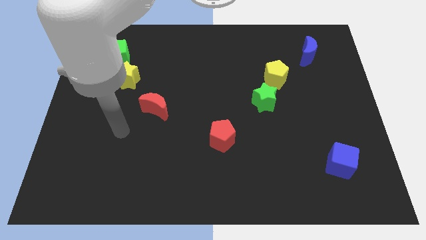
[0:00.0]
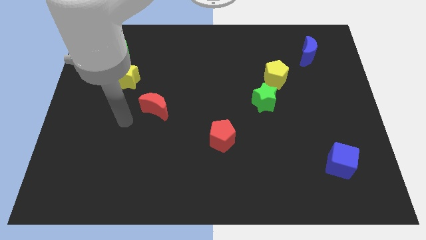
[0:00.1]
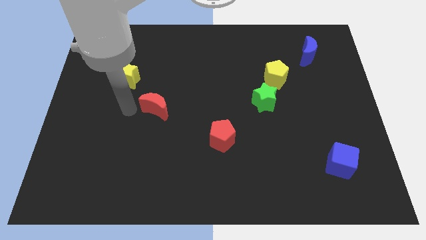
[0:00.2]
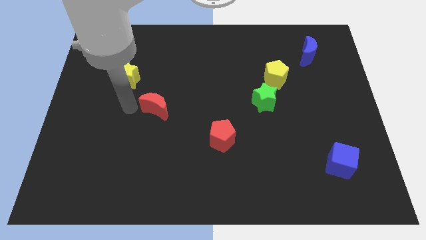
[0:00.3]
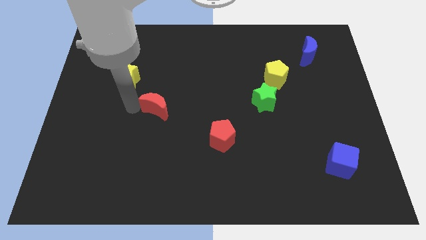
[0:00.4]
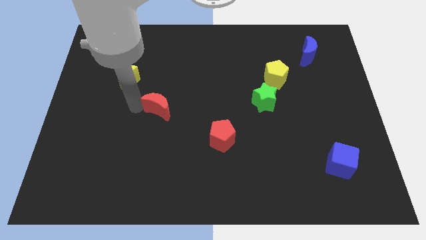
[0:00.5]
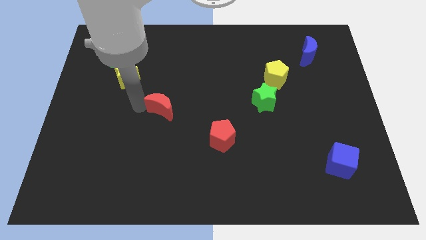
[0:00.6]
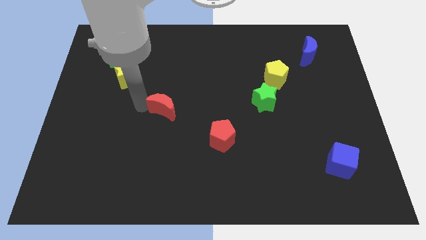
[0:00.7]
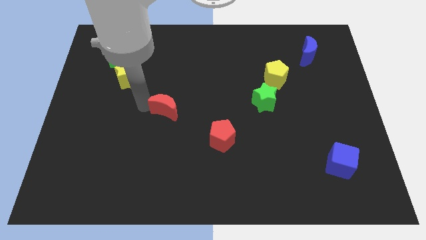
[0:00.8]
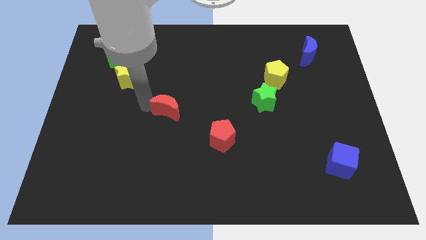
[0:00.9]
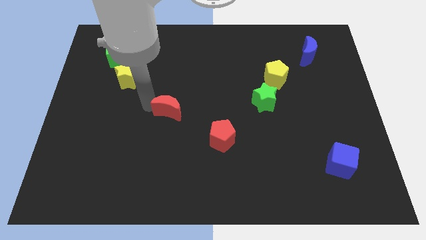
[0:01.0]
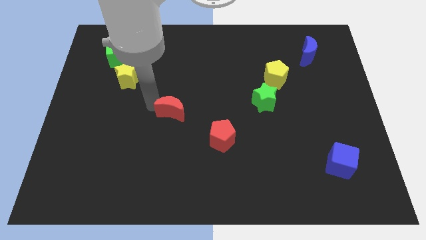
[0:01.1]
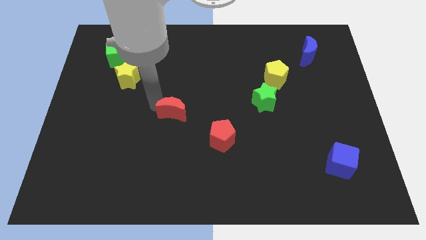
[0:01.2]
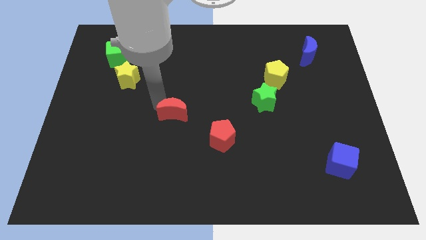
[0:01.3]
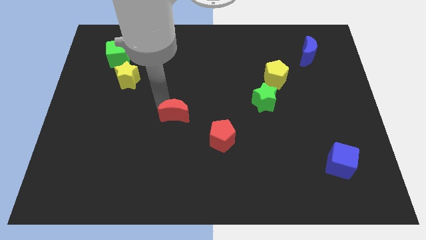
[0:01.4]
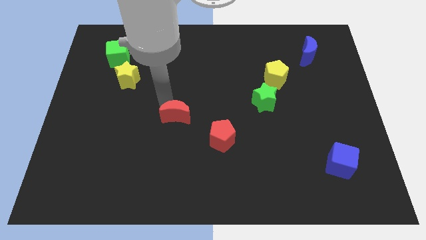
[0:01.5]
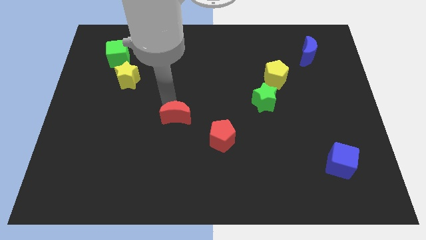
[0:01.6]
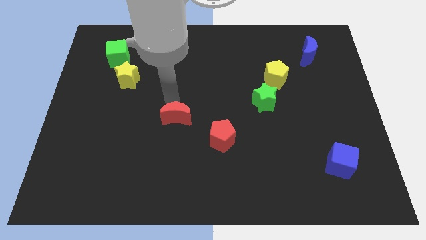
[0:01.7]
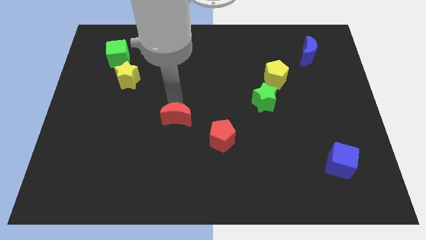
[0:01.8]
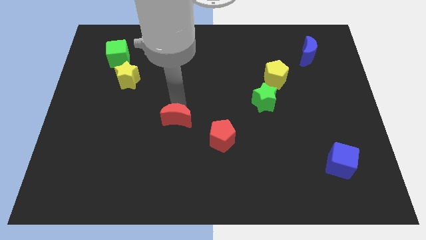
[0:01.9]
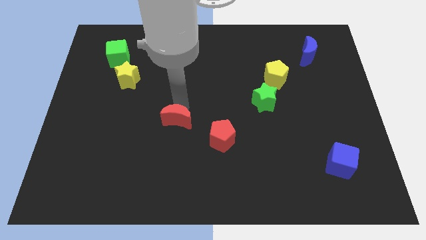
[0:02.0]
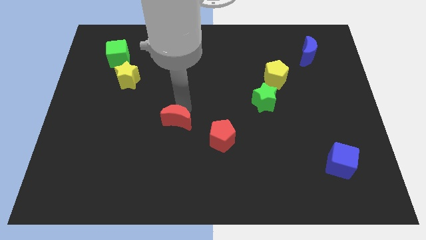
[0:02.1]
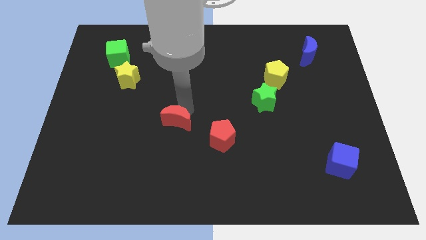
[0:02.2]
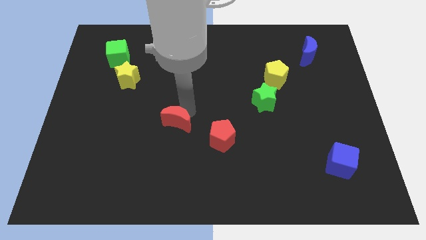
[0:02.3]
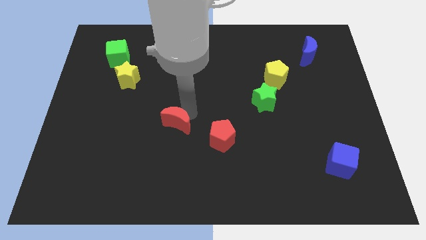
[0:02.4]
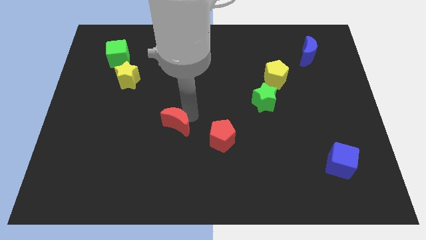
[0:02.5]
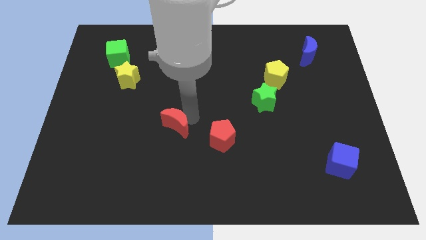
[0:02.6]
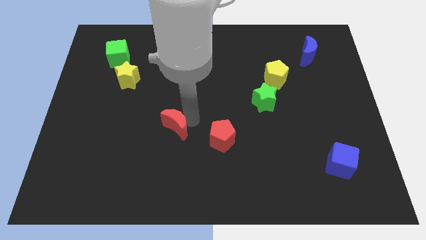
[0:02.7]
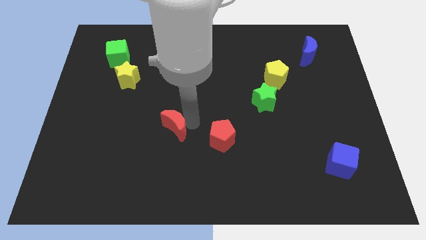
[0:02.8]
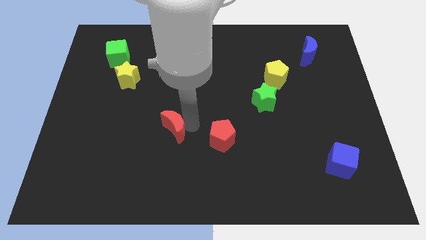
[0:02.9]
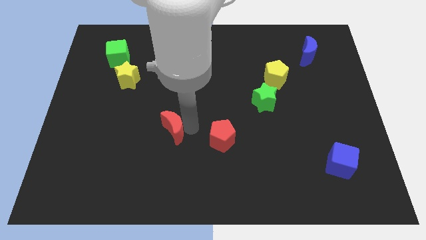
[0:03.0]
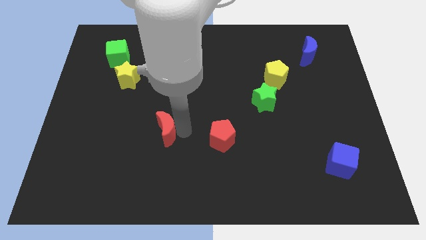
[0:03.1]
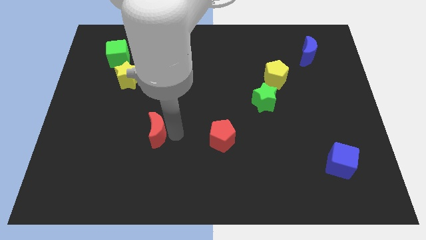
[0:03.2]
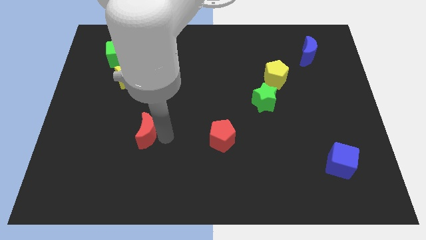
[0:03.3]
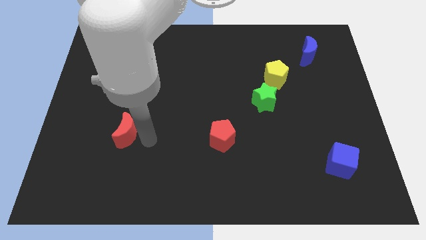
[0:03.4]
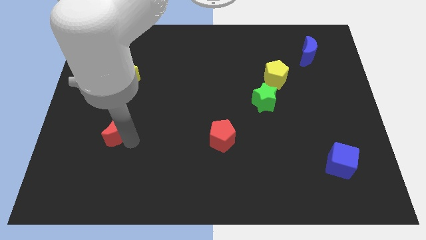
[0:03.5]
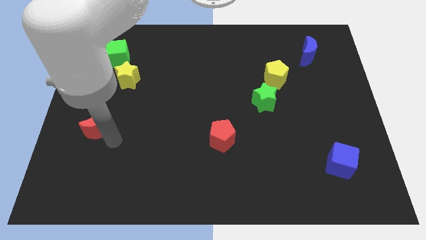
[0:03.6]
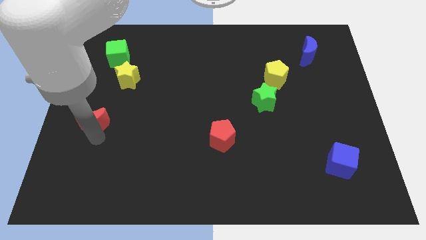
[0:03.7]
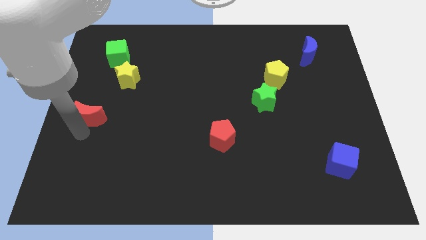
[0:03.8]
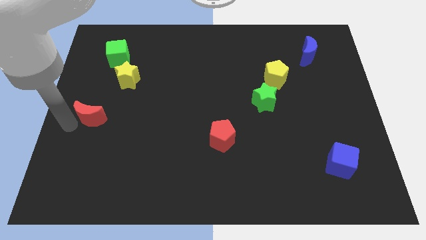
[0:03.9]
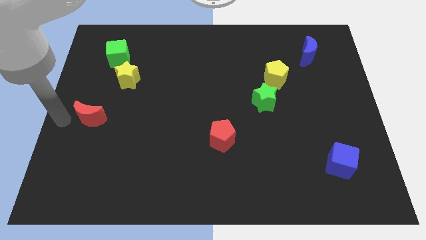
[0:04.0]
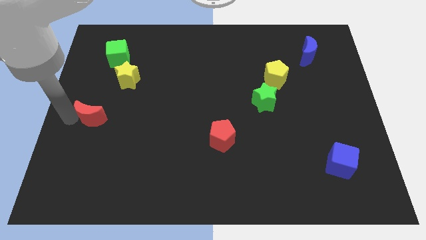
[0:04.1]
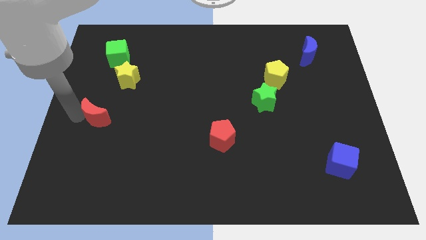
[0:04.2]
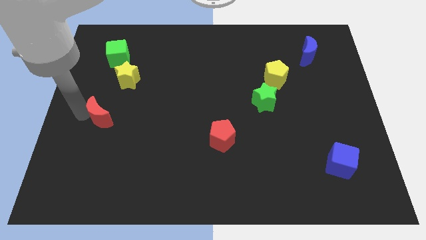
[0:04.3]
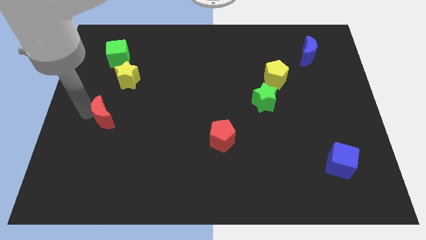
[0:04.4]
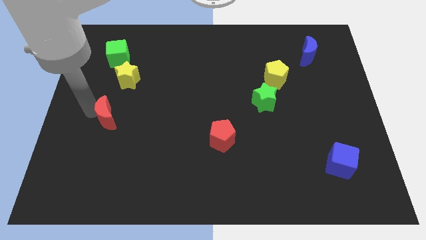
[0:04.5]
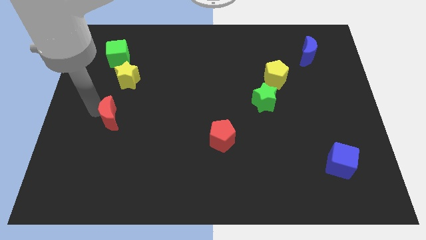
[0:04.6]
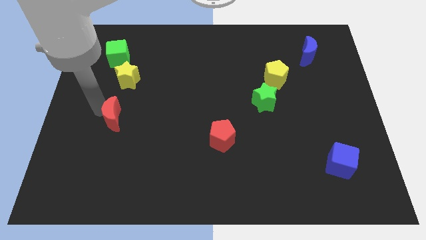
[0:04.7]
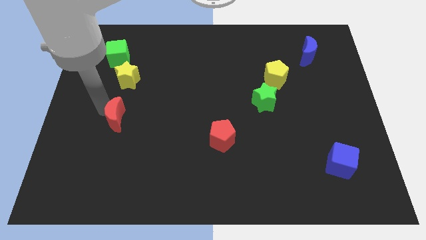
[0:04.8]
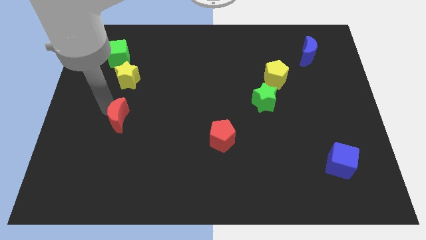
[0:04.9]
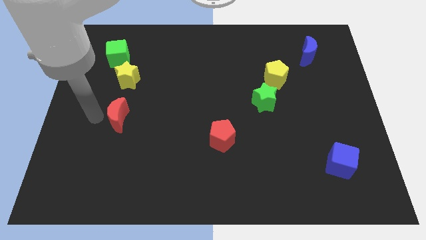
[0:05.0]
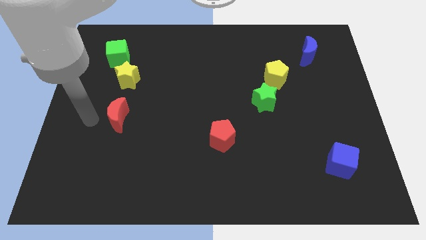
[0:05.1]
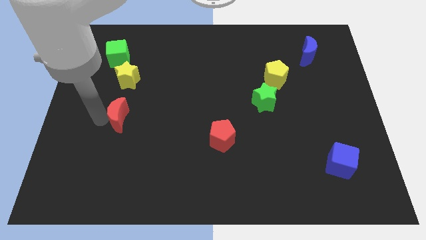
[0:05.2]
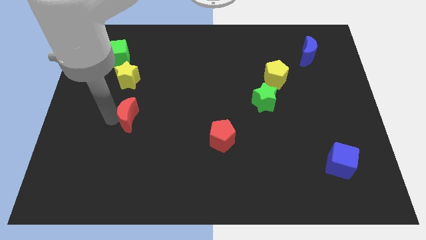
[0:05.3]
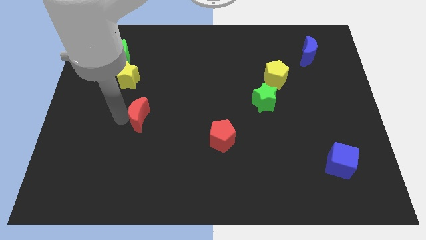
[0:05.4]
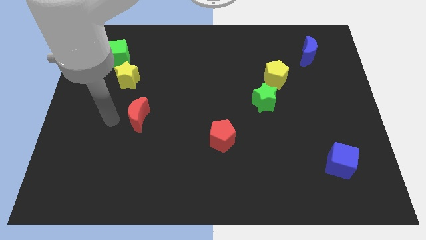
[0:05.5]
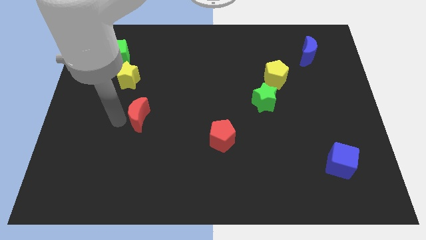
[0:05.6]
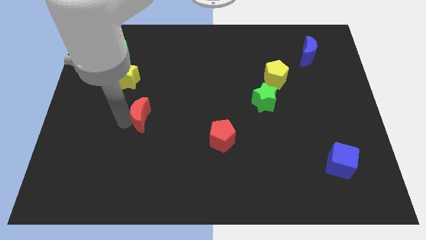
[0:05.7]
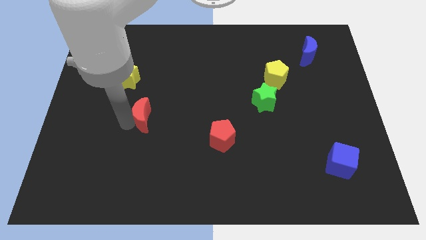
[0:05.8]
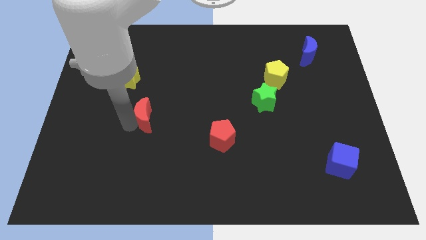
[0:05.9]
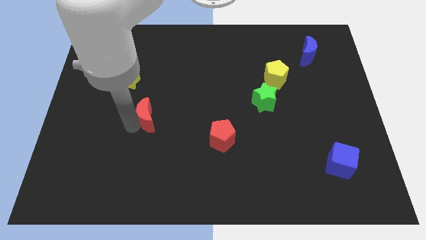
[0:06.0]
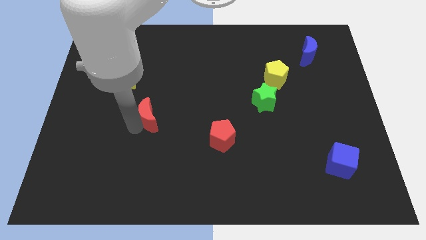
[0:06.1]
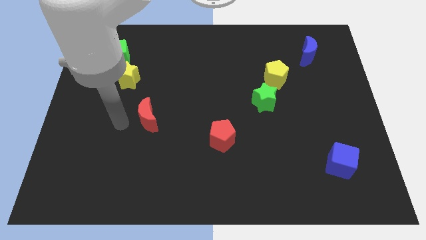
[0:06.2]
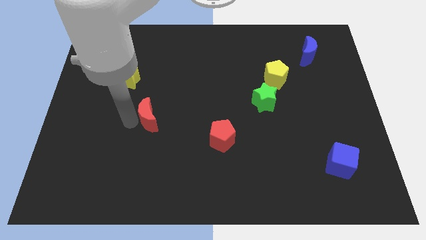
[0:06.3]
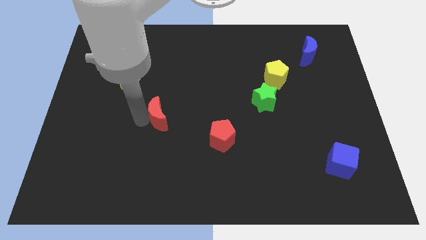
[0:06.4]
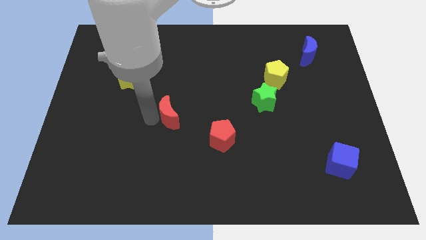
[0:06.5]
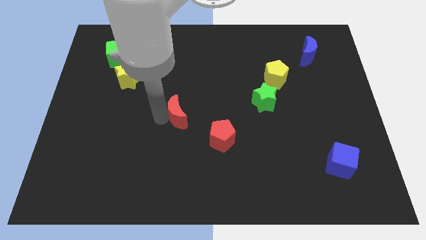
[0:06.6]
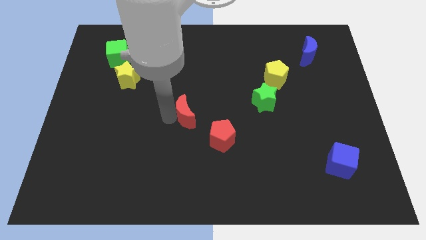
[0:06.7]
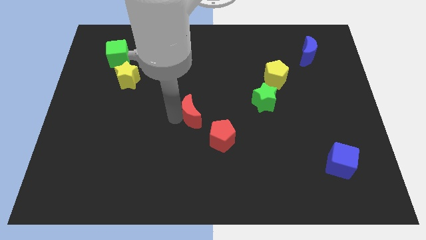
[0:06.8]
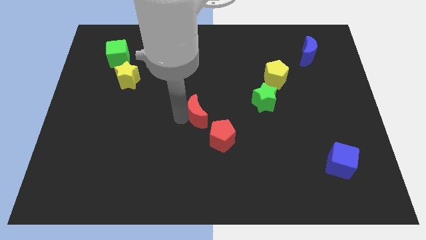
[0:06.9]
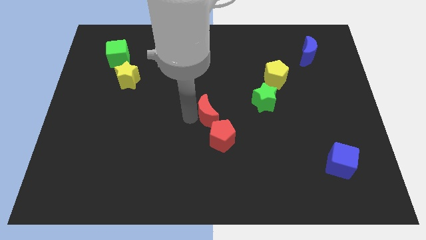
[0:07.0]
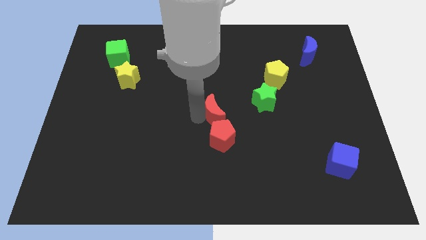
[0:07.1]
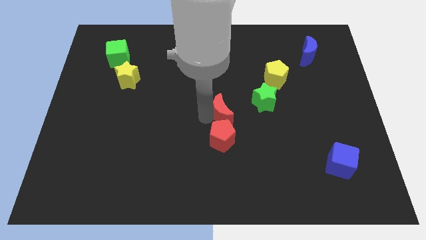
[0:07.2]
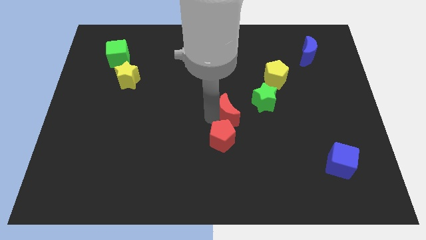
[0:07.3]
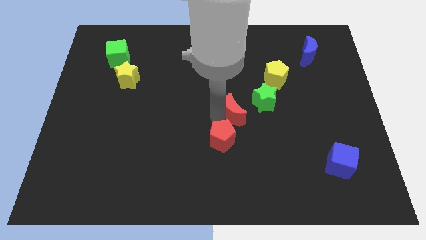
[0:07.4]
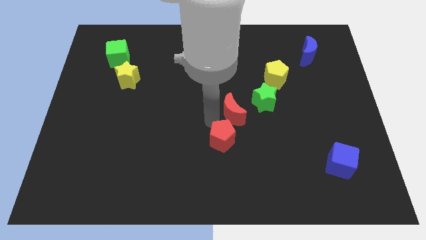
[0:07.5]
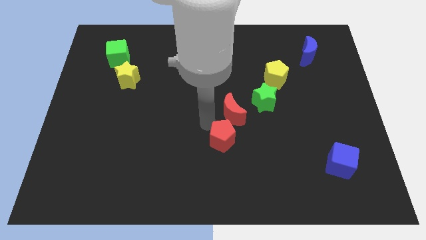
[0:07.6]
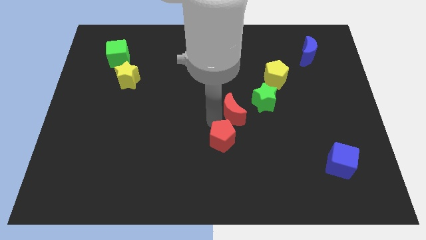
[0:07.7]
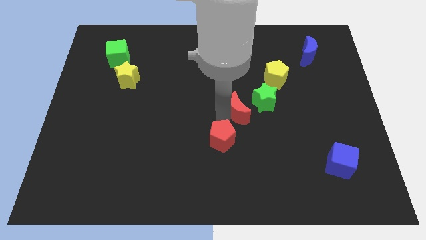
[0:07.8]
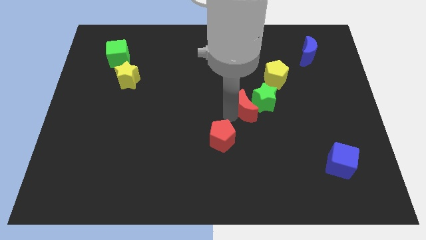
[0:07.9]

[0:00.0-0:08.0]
push the red moon close to the green star
